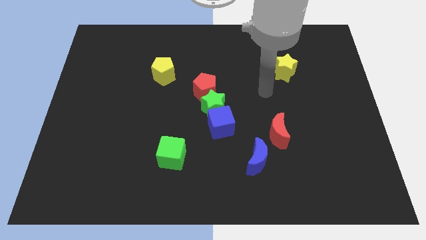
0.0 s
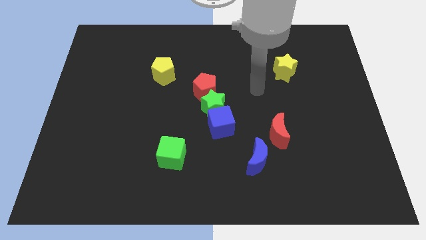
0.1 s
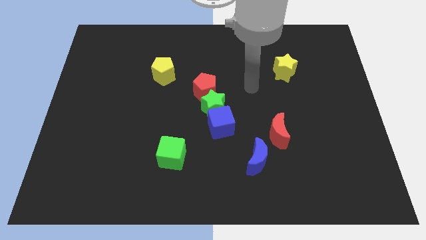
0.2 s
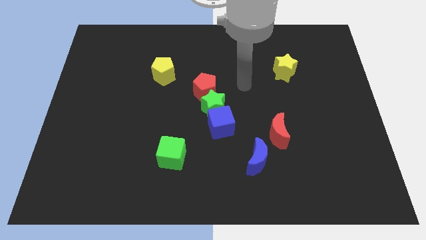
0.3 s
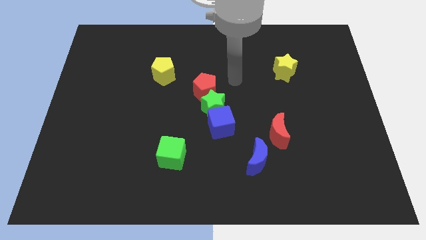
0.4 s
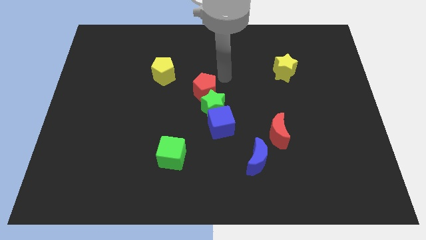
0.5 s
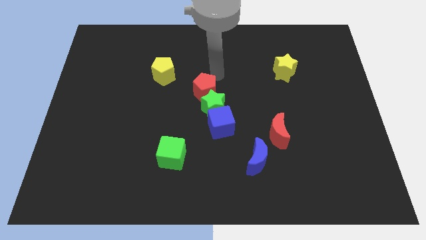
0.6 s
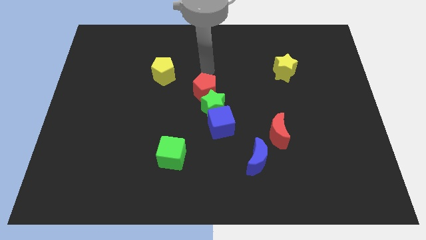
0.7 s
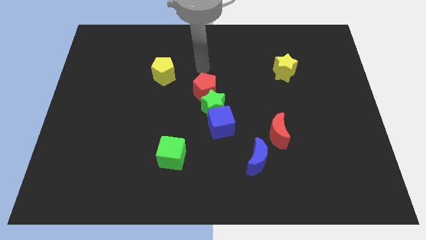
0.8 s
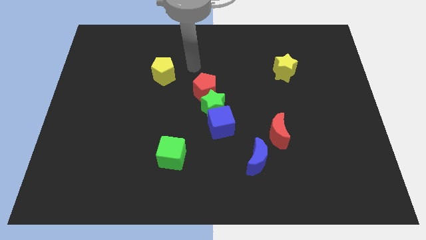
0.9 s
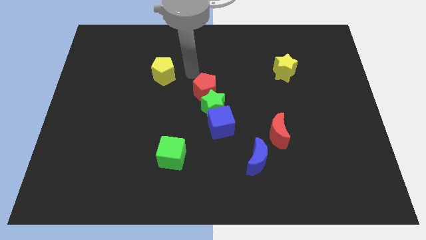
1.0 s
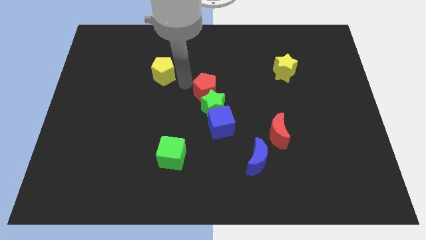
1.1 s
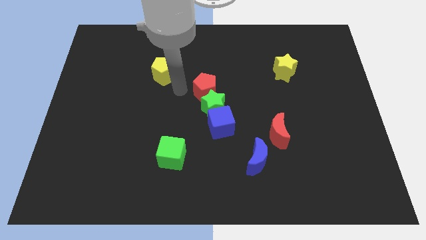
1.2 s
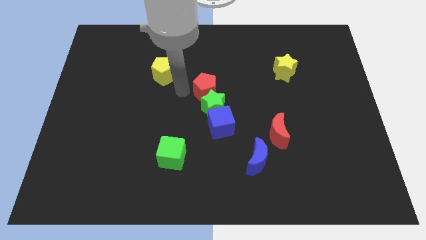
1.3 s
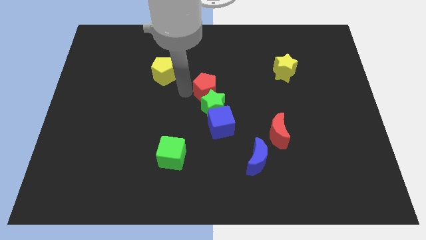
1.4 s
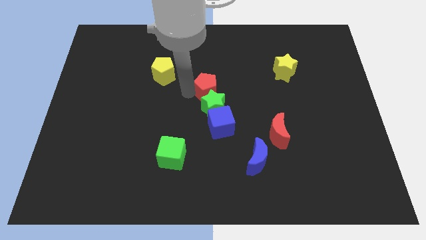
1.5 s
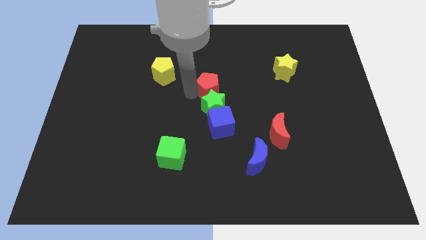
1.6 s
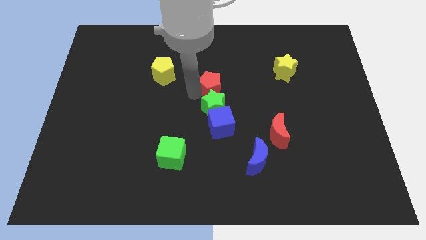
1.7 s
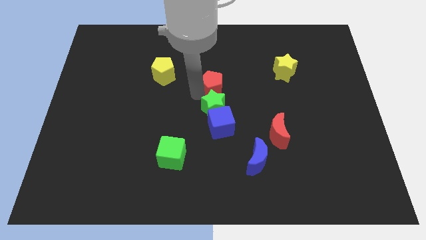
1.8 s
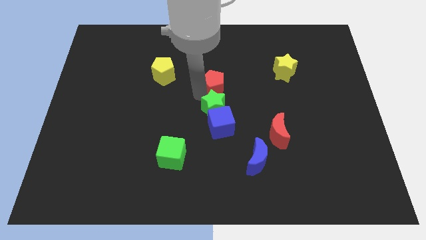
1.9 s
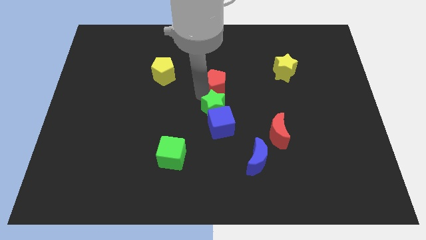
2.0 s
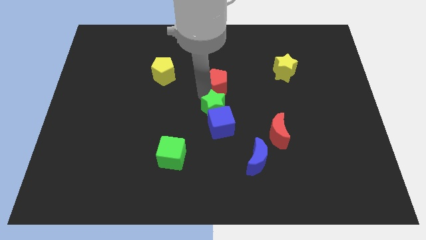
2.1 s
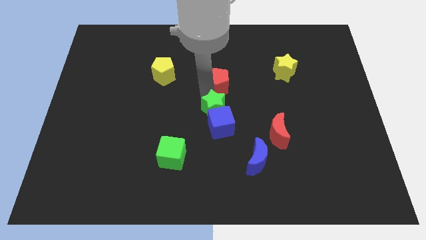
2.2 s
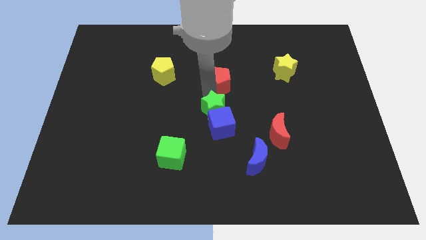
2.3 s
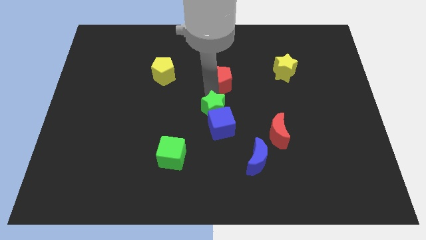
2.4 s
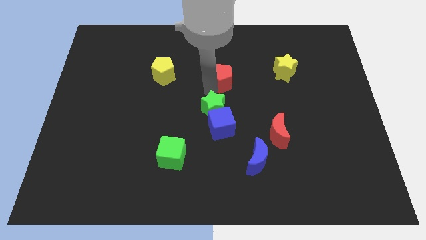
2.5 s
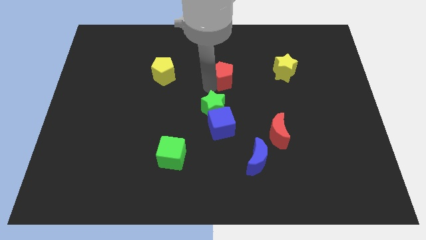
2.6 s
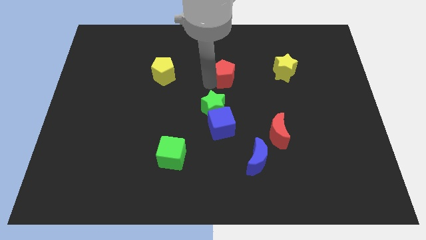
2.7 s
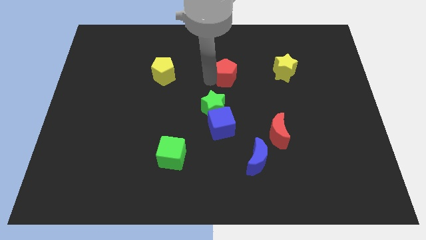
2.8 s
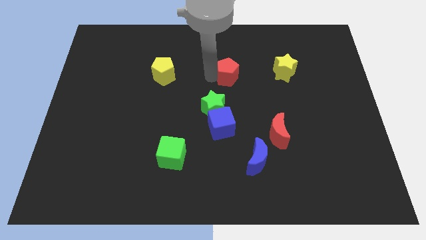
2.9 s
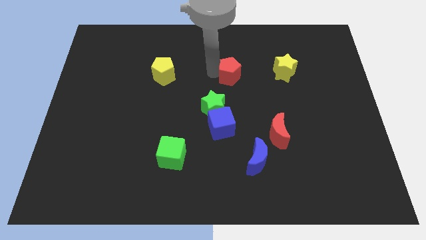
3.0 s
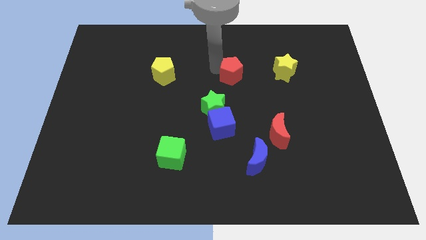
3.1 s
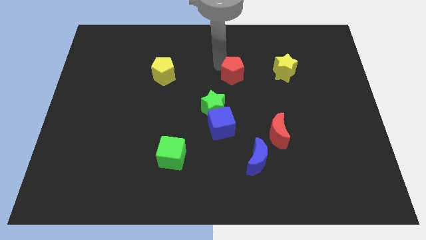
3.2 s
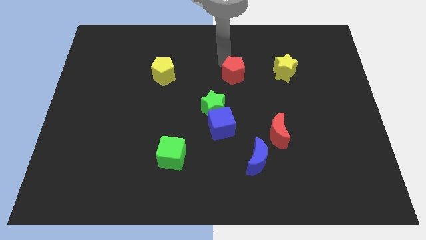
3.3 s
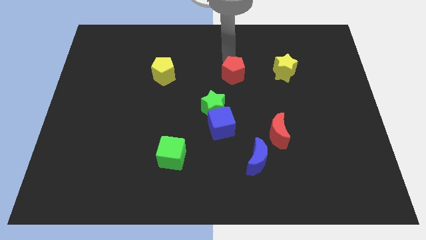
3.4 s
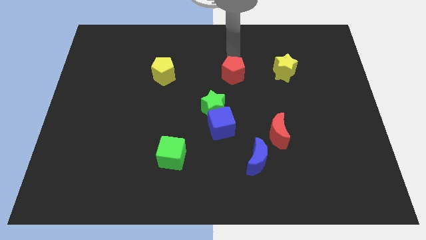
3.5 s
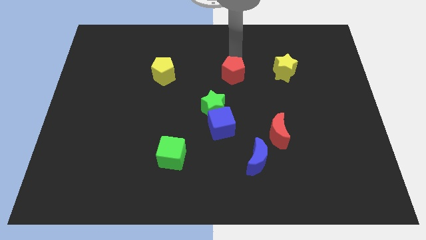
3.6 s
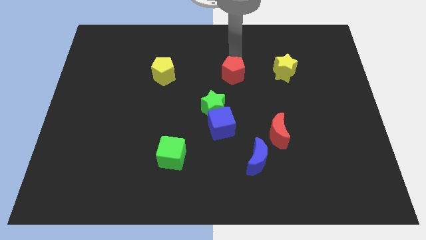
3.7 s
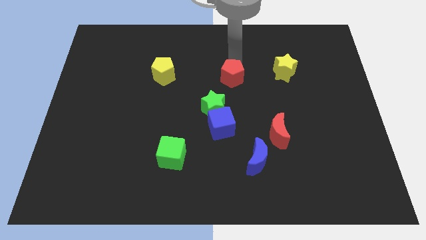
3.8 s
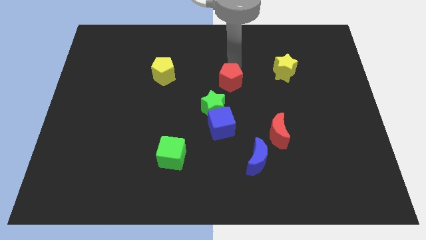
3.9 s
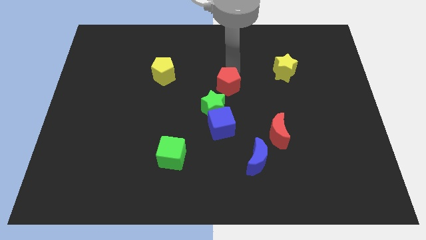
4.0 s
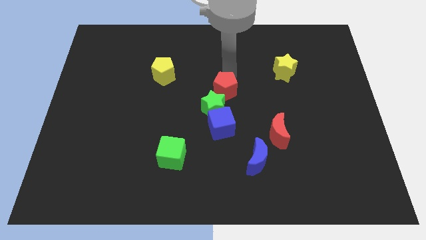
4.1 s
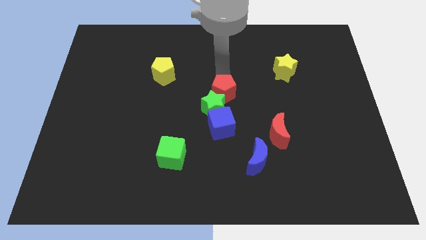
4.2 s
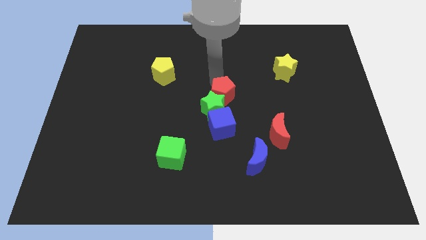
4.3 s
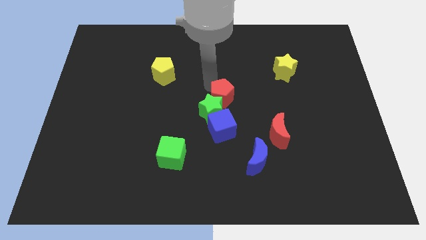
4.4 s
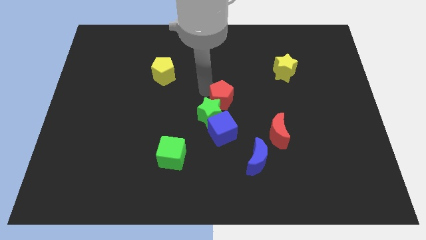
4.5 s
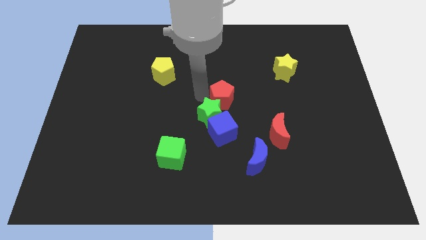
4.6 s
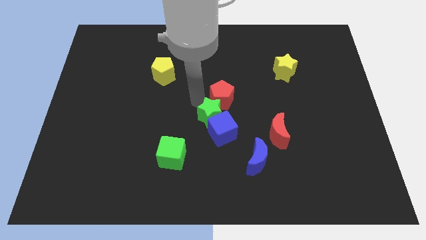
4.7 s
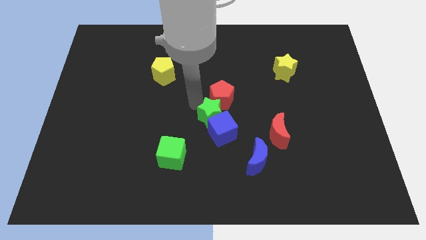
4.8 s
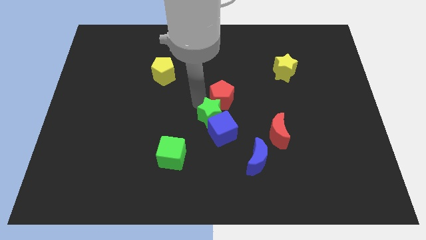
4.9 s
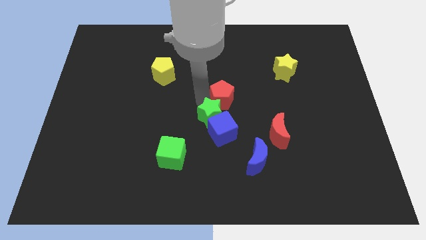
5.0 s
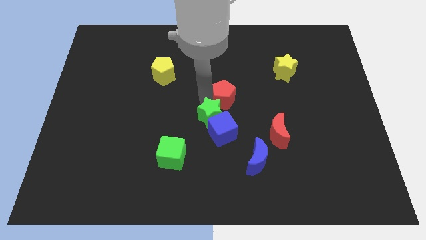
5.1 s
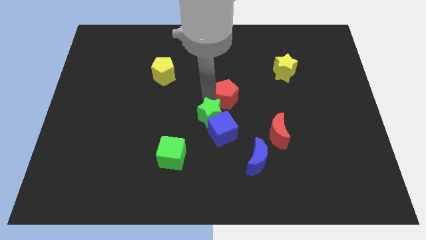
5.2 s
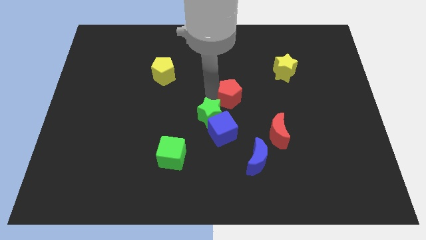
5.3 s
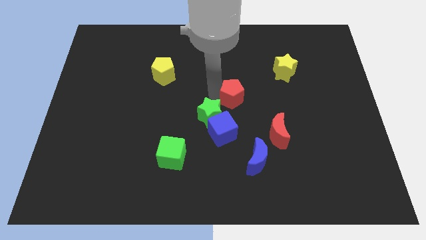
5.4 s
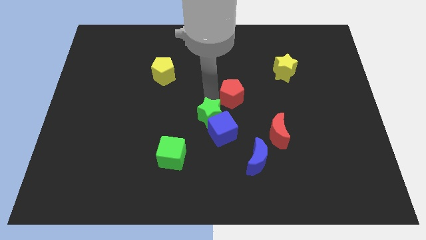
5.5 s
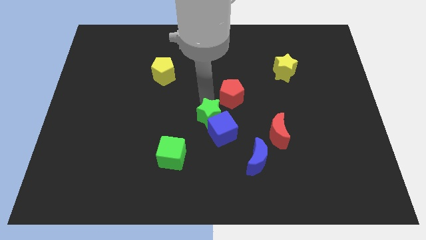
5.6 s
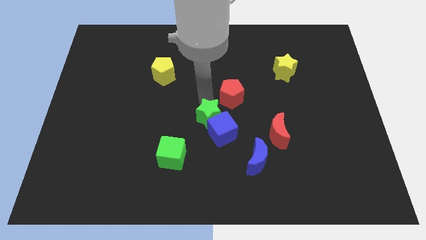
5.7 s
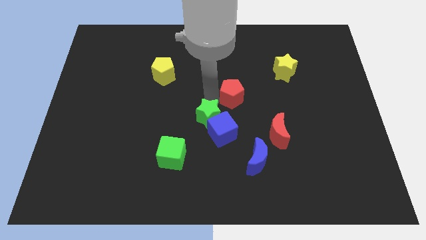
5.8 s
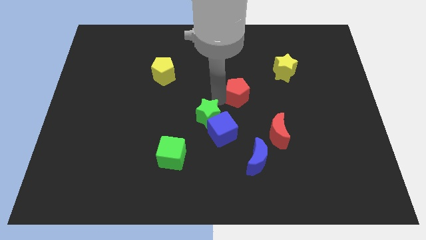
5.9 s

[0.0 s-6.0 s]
slightly move the red pentagon to the right

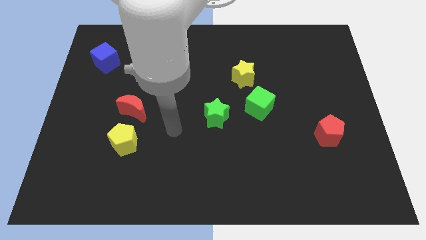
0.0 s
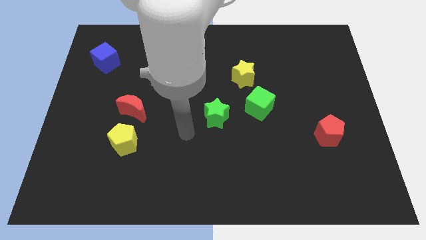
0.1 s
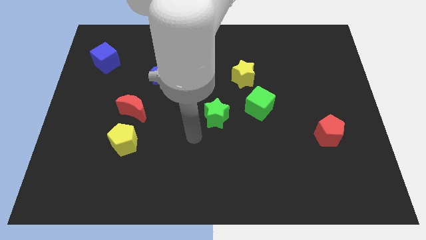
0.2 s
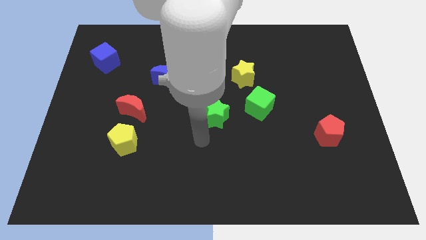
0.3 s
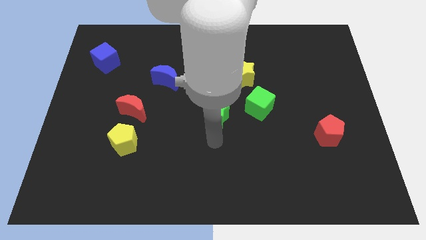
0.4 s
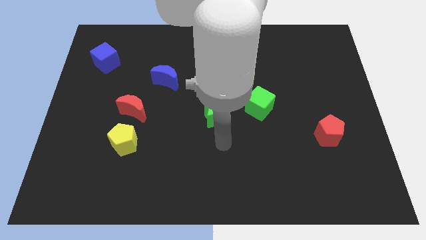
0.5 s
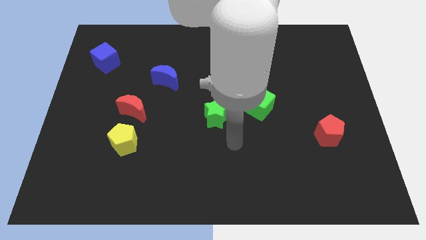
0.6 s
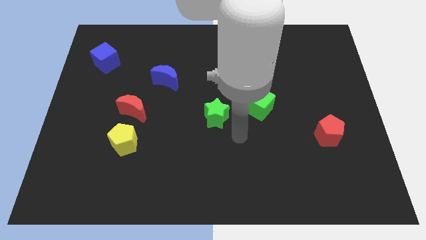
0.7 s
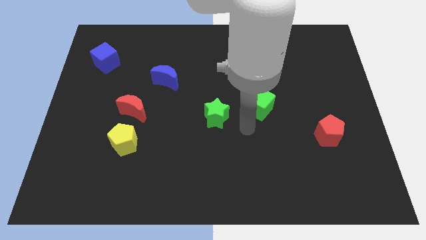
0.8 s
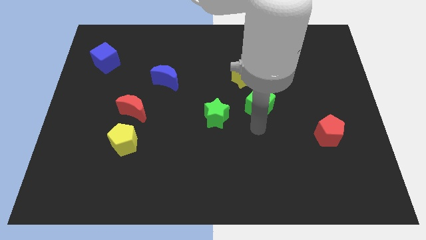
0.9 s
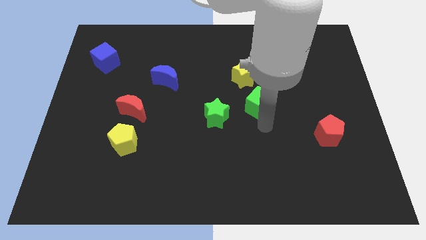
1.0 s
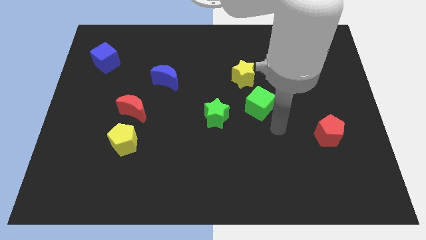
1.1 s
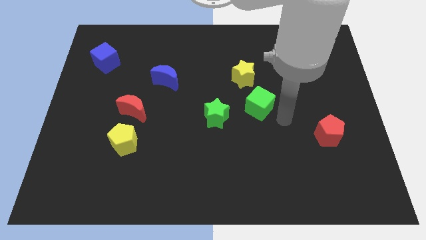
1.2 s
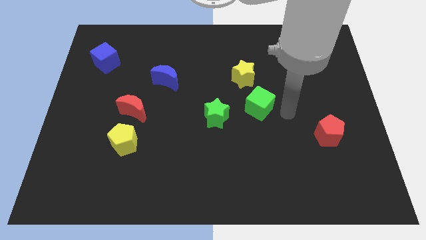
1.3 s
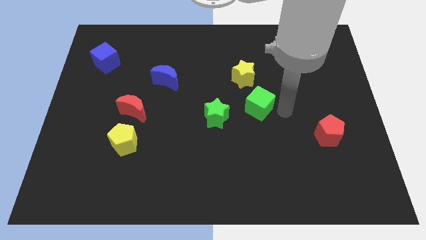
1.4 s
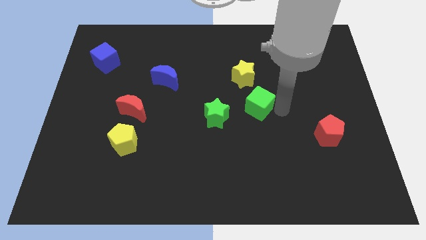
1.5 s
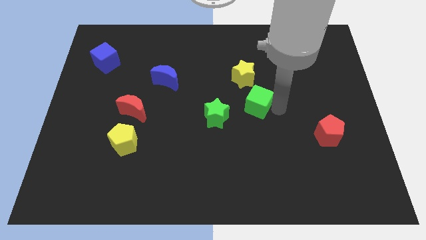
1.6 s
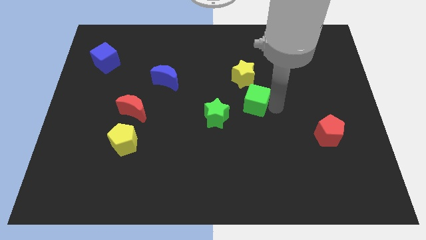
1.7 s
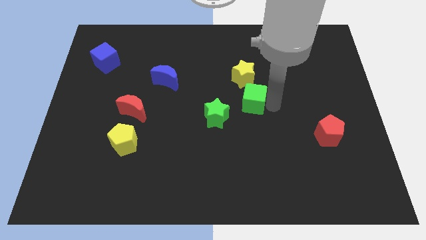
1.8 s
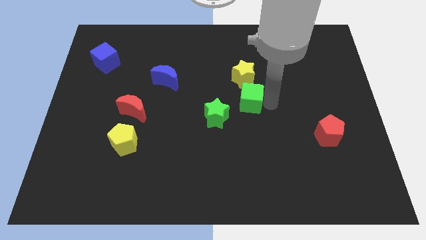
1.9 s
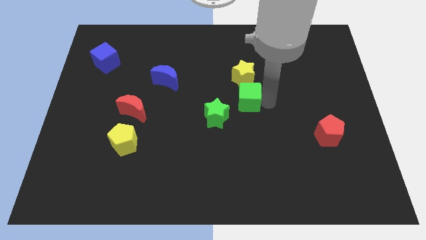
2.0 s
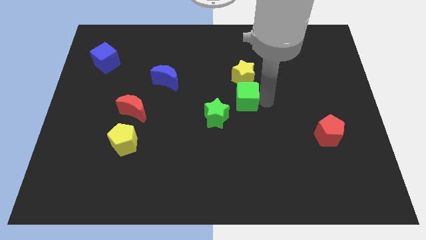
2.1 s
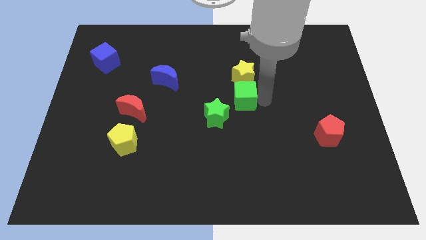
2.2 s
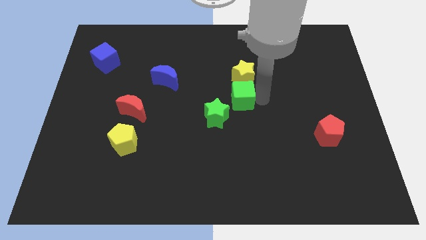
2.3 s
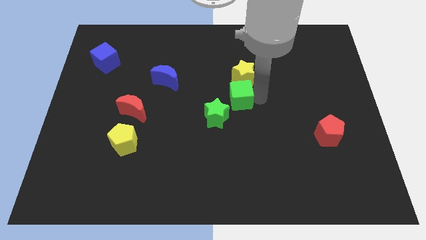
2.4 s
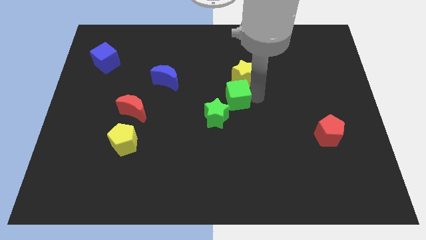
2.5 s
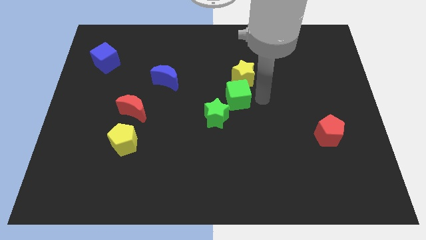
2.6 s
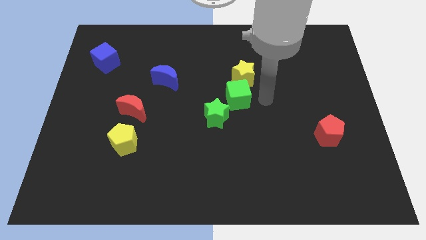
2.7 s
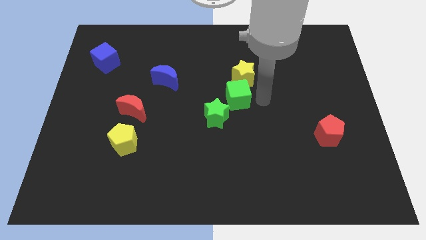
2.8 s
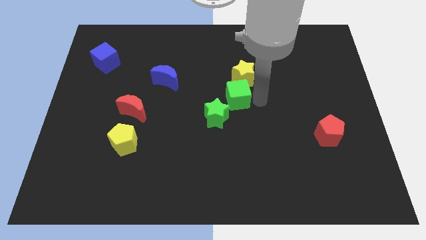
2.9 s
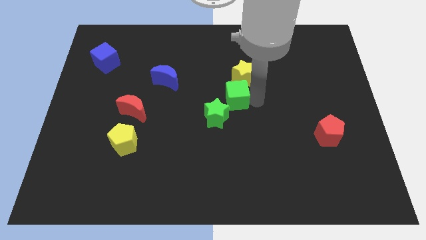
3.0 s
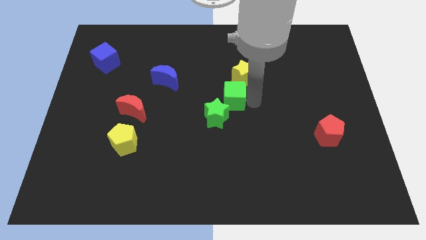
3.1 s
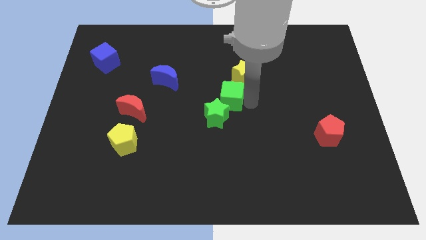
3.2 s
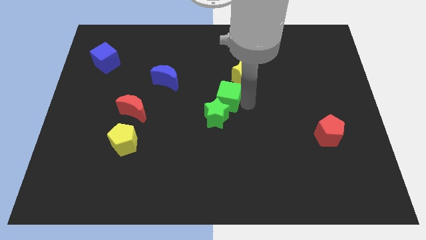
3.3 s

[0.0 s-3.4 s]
push the green cube slightly to the left
